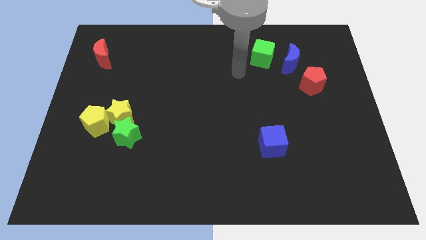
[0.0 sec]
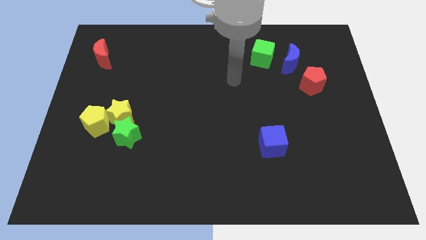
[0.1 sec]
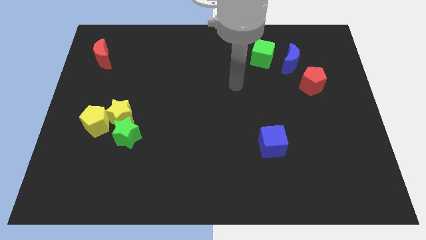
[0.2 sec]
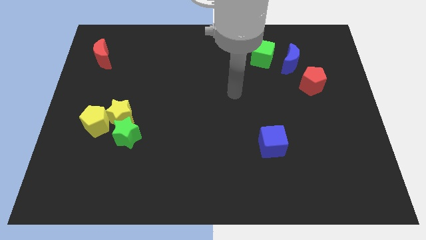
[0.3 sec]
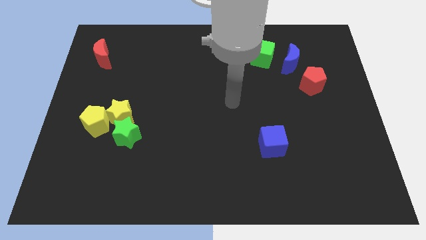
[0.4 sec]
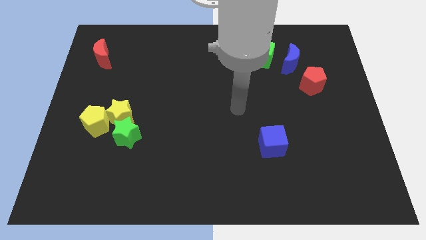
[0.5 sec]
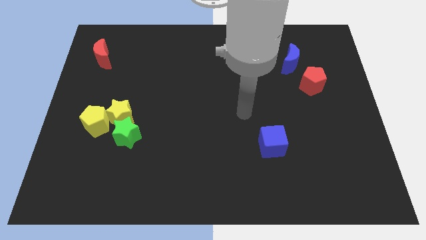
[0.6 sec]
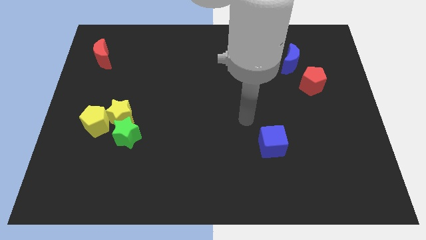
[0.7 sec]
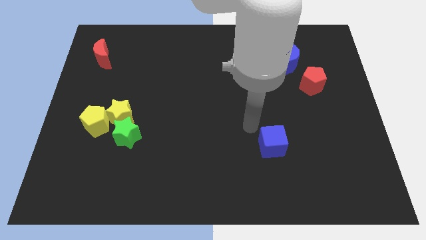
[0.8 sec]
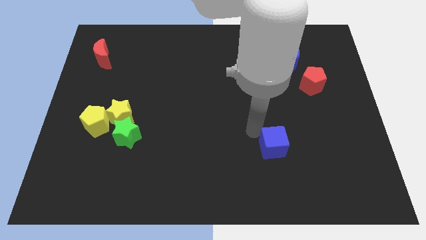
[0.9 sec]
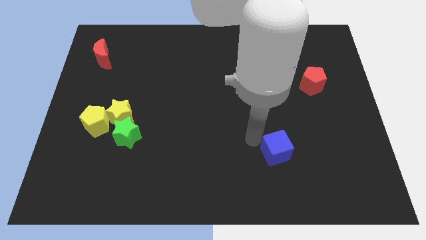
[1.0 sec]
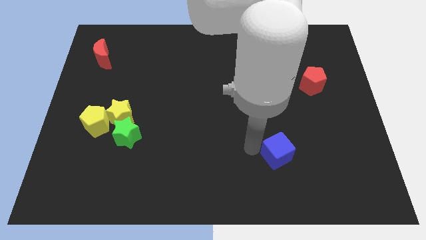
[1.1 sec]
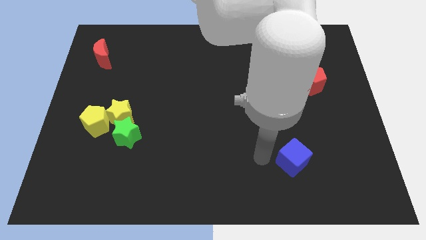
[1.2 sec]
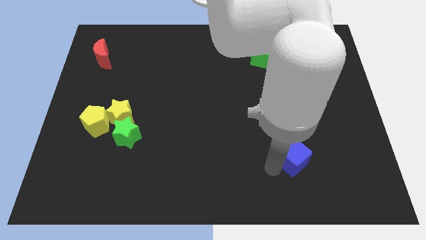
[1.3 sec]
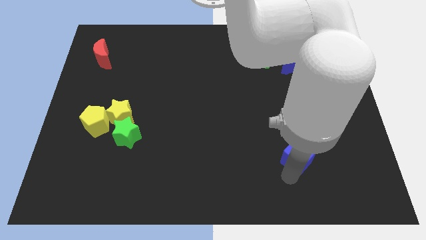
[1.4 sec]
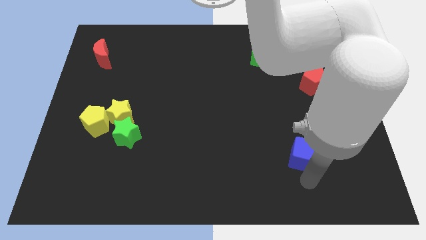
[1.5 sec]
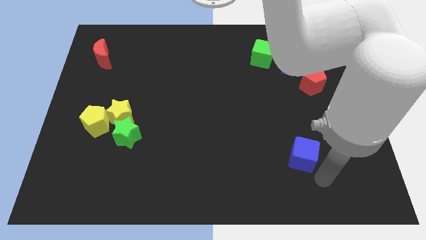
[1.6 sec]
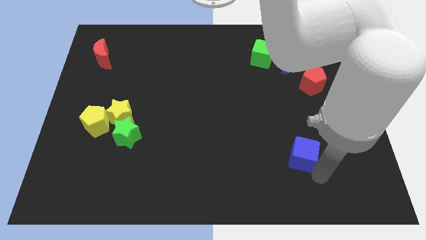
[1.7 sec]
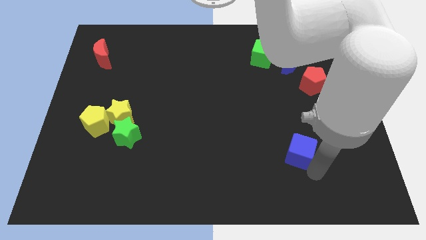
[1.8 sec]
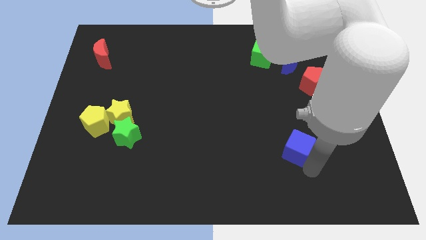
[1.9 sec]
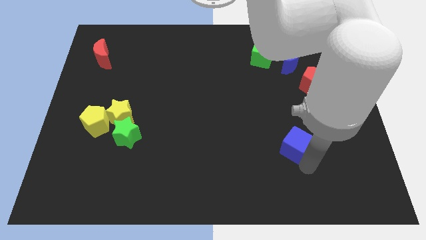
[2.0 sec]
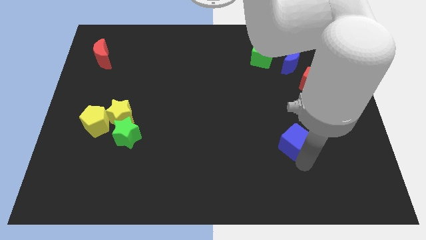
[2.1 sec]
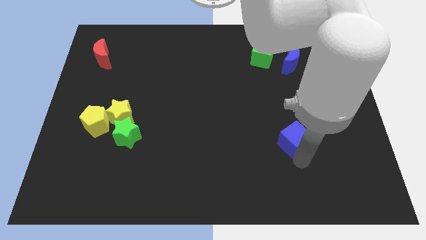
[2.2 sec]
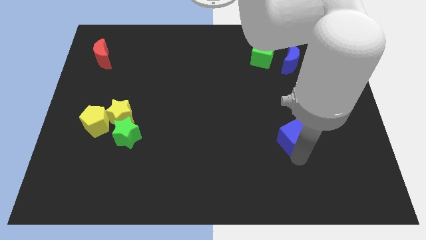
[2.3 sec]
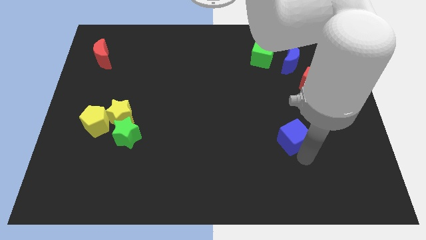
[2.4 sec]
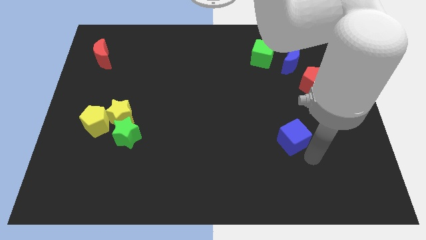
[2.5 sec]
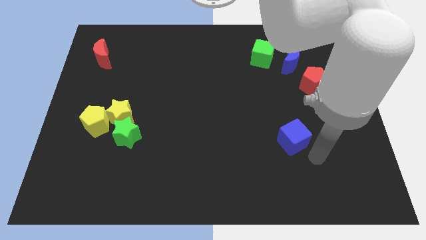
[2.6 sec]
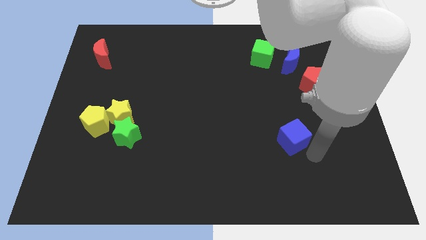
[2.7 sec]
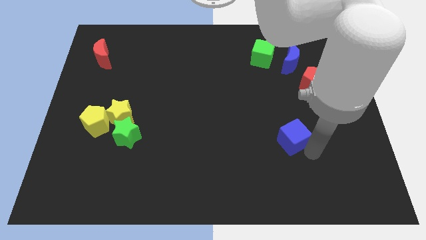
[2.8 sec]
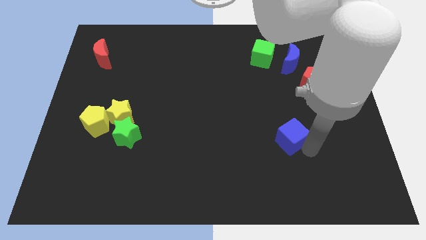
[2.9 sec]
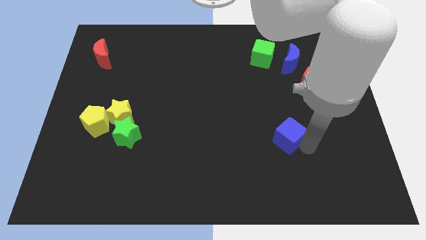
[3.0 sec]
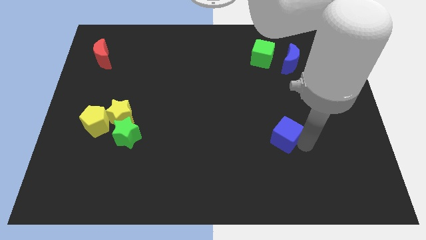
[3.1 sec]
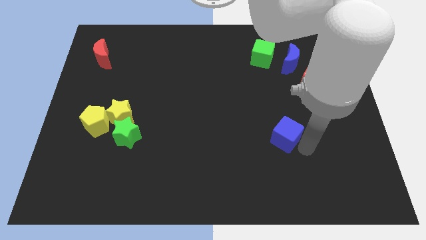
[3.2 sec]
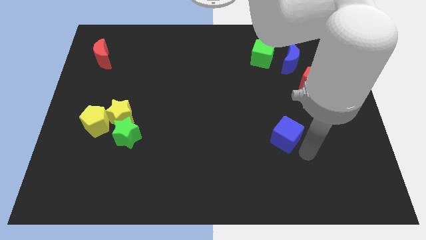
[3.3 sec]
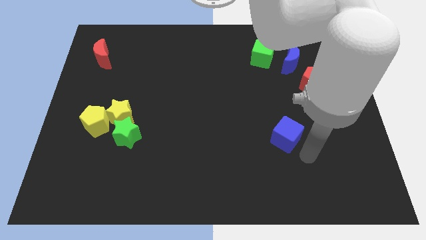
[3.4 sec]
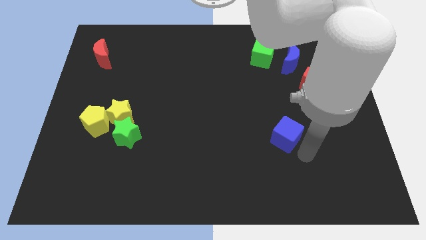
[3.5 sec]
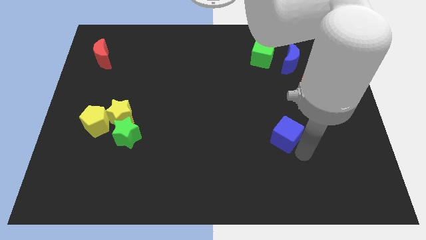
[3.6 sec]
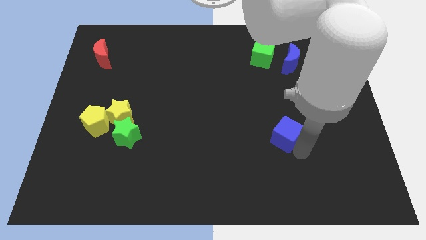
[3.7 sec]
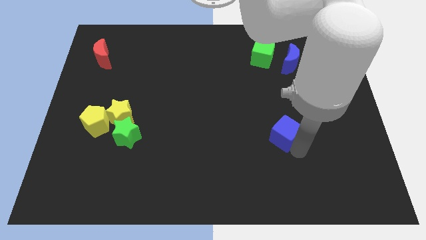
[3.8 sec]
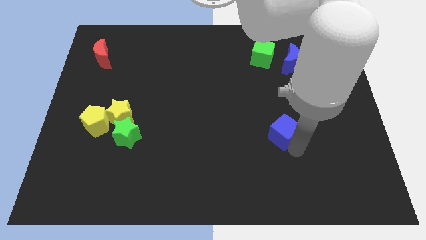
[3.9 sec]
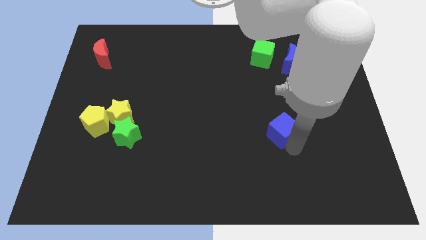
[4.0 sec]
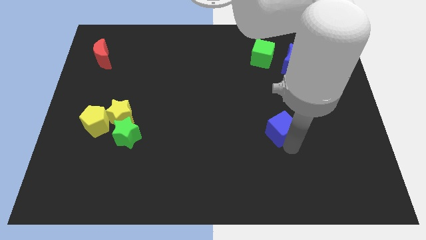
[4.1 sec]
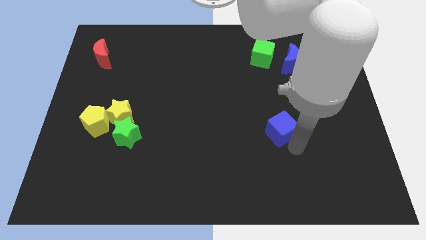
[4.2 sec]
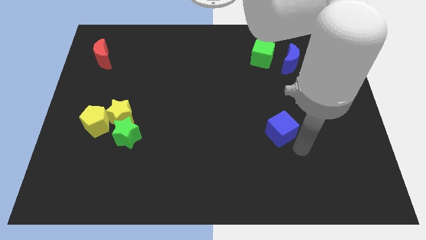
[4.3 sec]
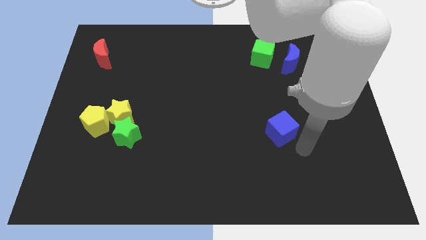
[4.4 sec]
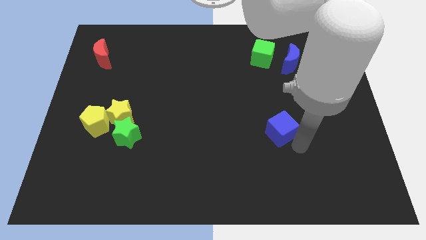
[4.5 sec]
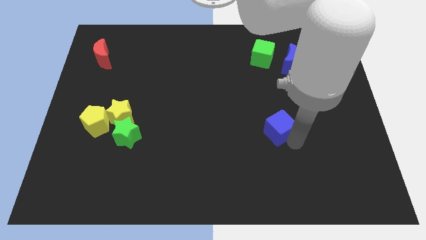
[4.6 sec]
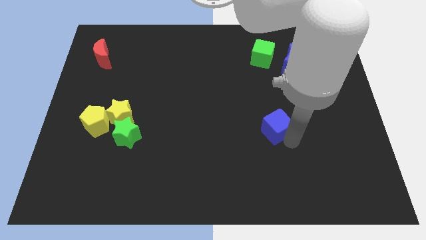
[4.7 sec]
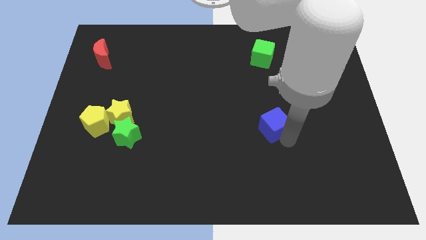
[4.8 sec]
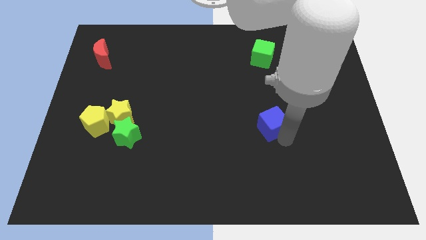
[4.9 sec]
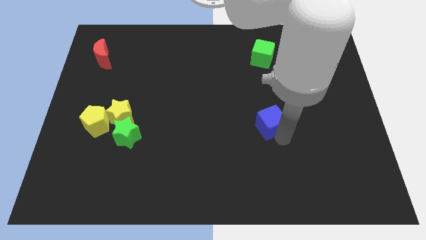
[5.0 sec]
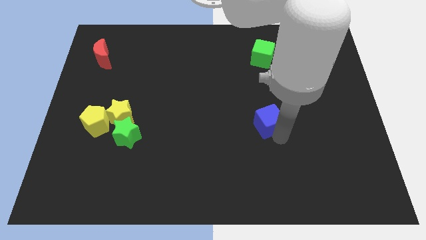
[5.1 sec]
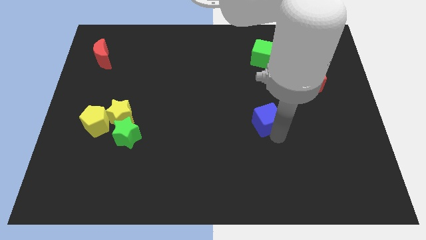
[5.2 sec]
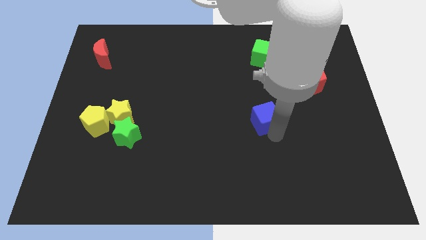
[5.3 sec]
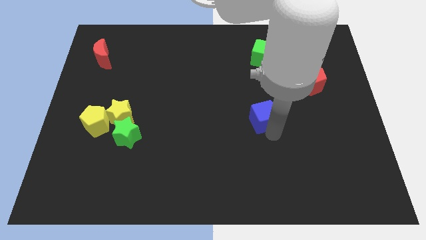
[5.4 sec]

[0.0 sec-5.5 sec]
slightly push the blue cube up

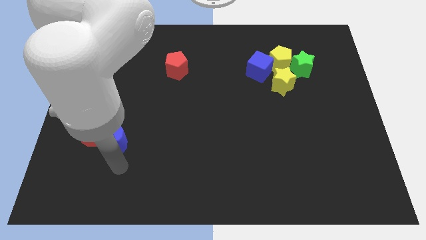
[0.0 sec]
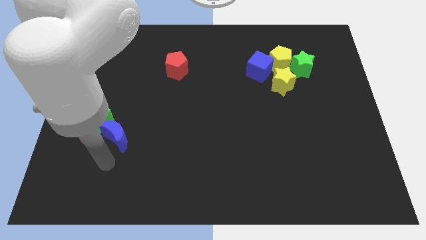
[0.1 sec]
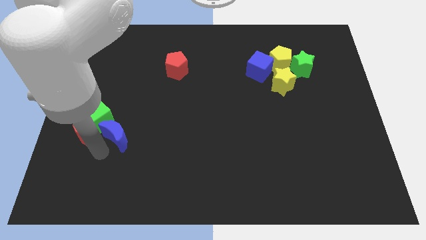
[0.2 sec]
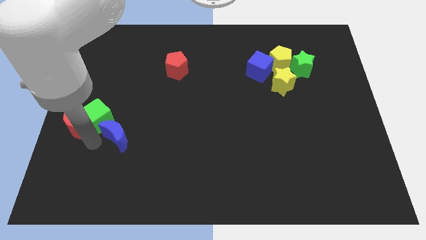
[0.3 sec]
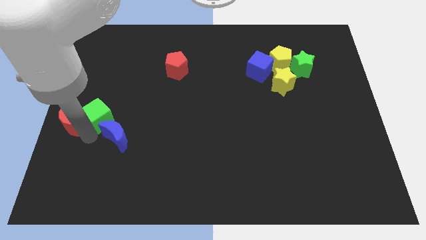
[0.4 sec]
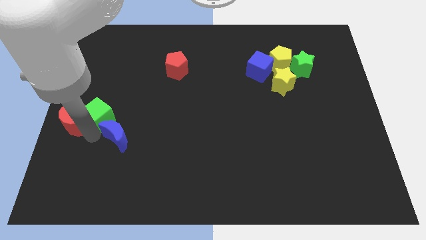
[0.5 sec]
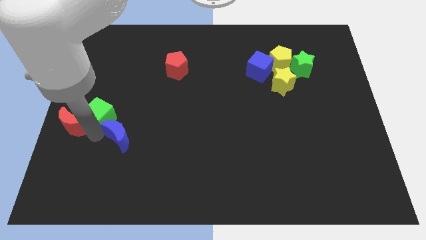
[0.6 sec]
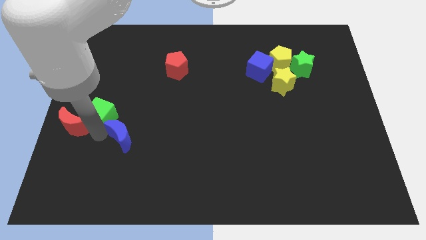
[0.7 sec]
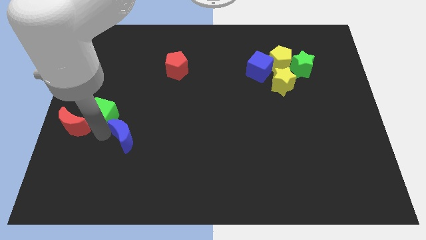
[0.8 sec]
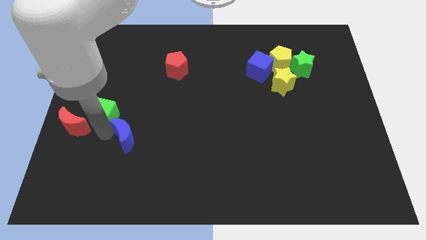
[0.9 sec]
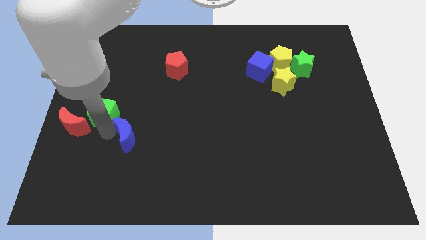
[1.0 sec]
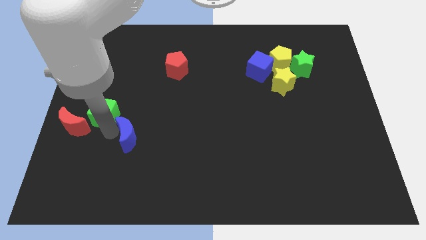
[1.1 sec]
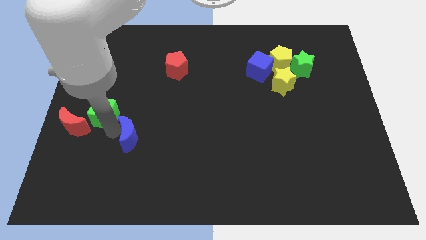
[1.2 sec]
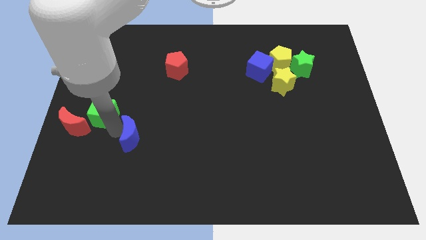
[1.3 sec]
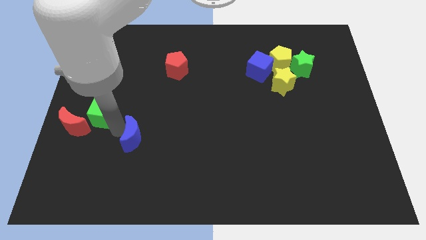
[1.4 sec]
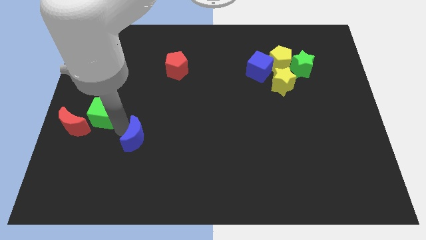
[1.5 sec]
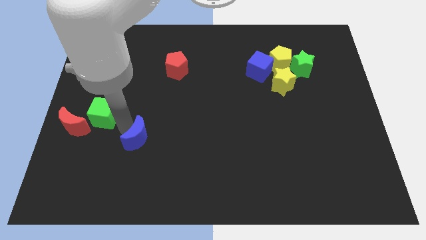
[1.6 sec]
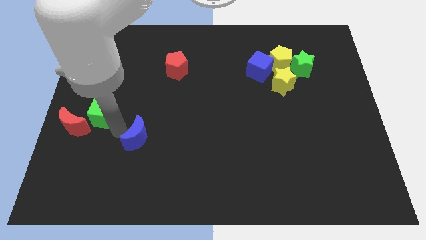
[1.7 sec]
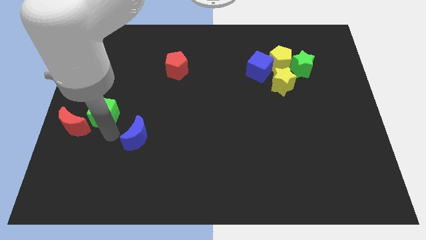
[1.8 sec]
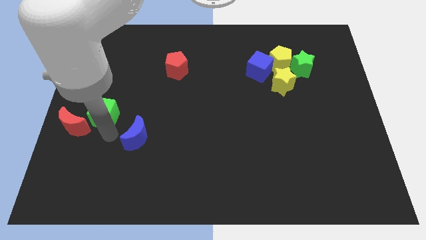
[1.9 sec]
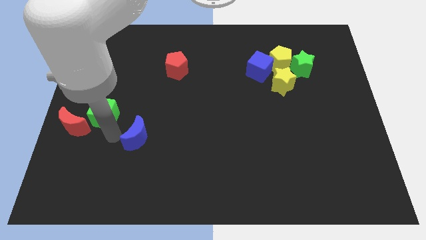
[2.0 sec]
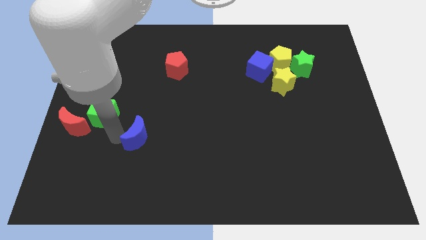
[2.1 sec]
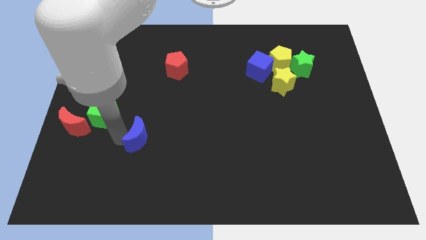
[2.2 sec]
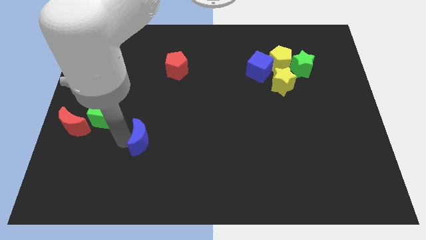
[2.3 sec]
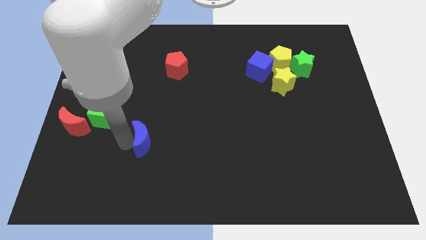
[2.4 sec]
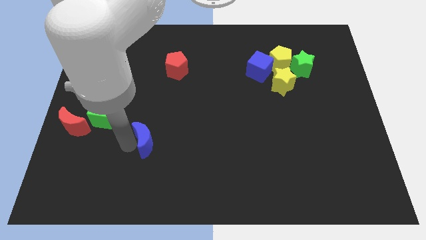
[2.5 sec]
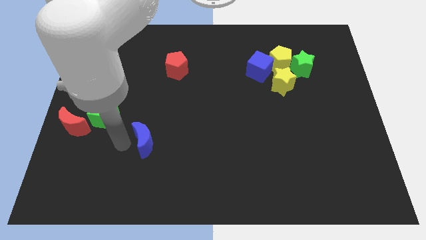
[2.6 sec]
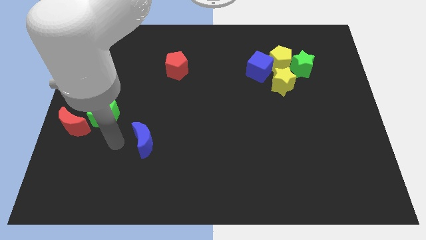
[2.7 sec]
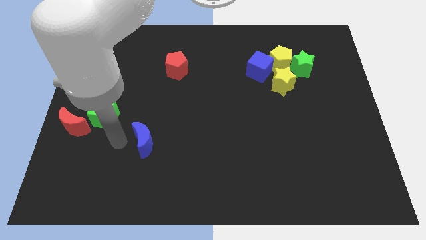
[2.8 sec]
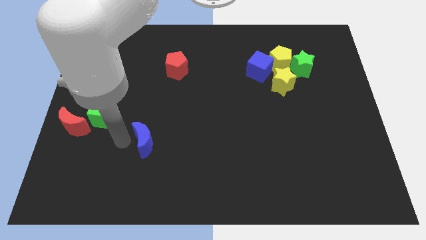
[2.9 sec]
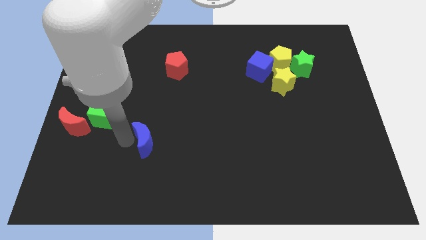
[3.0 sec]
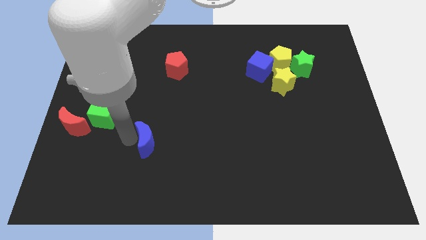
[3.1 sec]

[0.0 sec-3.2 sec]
push the blue moon somewhat to the right
